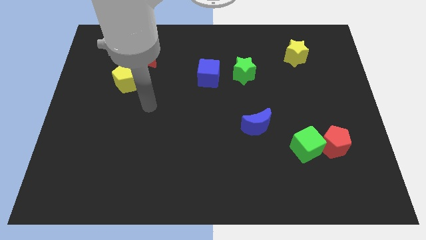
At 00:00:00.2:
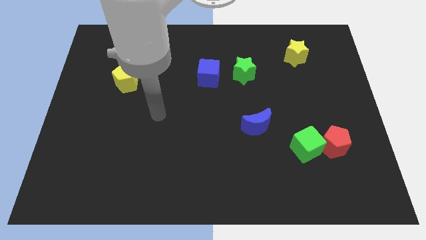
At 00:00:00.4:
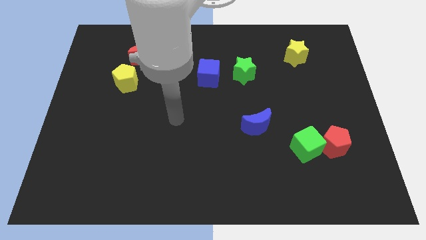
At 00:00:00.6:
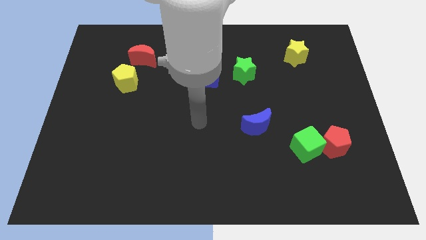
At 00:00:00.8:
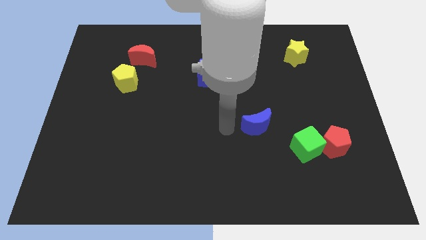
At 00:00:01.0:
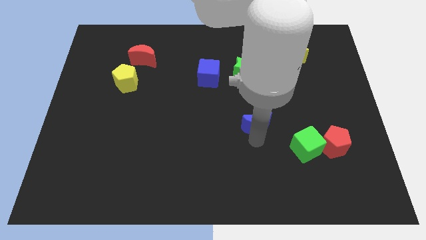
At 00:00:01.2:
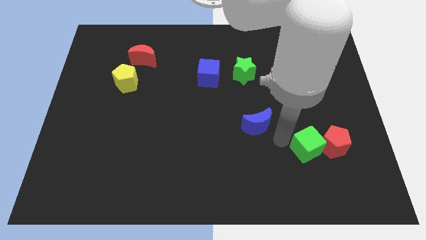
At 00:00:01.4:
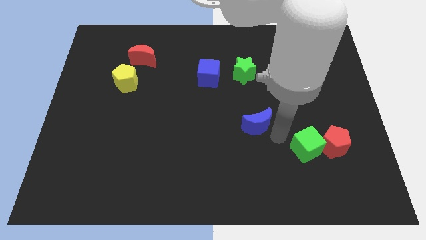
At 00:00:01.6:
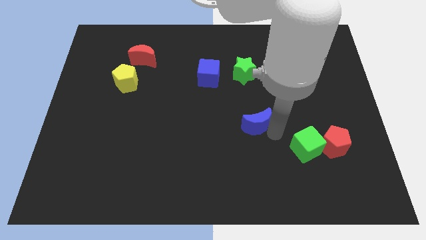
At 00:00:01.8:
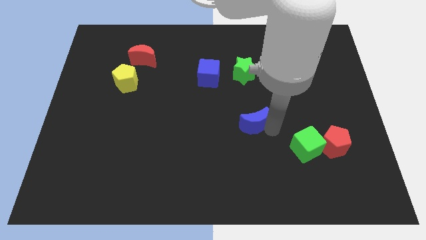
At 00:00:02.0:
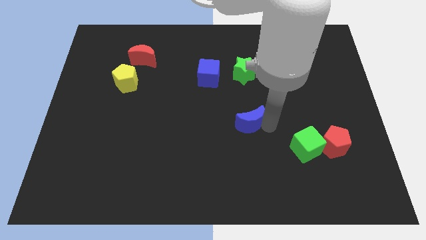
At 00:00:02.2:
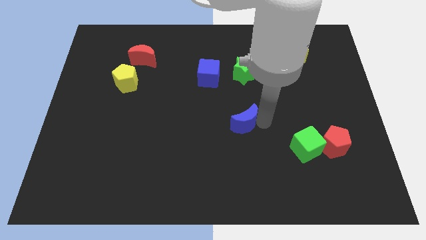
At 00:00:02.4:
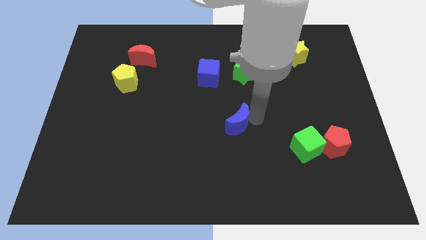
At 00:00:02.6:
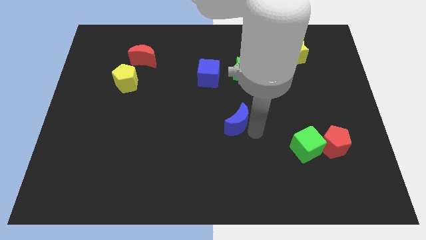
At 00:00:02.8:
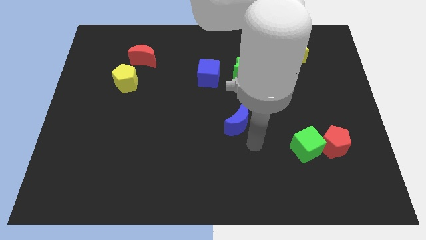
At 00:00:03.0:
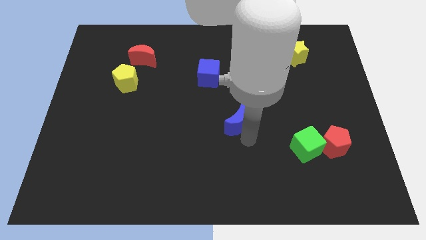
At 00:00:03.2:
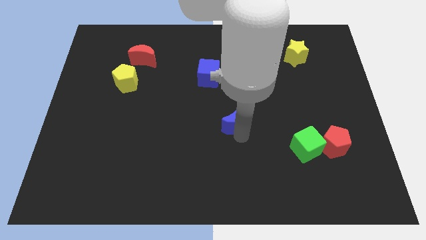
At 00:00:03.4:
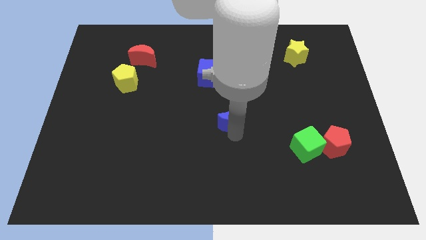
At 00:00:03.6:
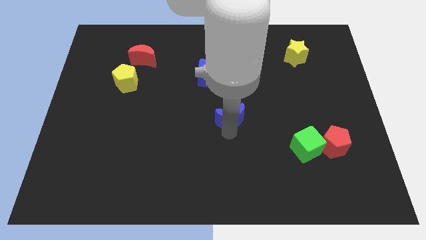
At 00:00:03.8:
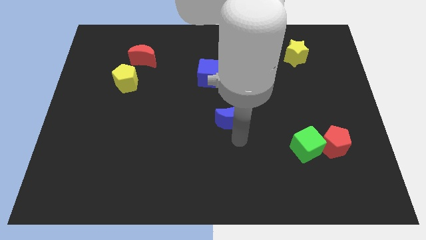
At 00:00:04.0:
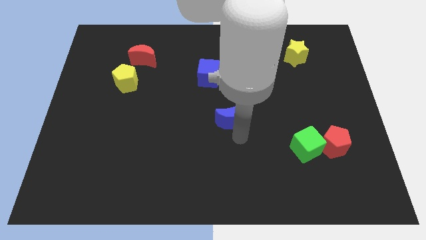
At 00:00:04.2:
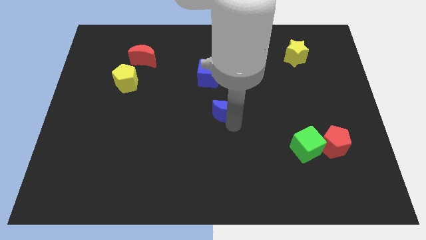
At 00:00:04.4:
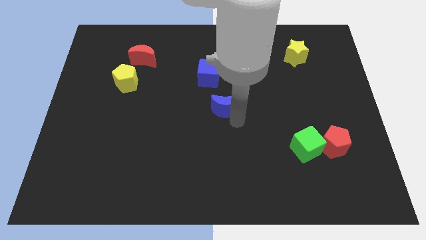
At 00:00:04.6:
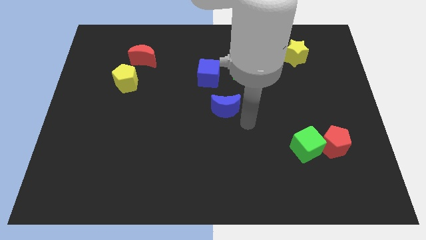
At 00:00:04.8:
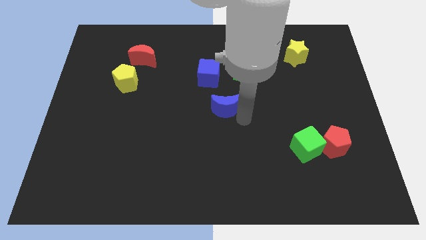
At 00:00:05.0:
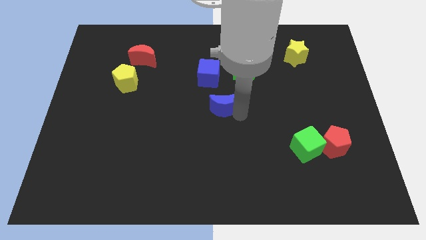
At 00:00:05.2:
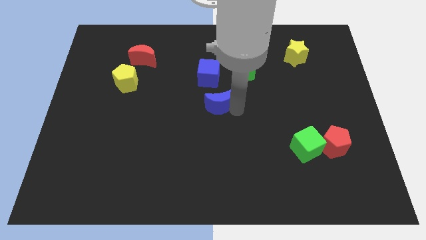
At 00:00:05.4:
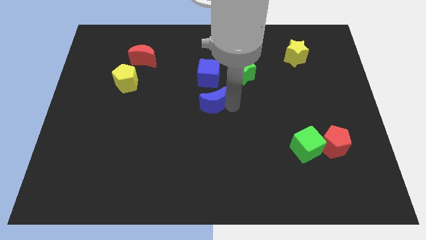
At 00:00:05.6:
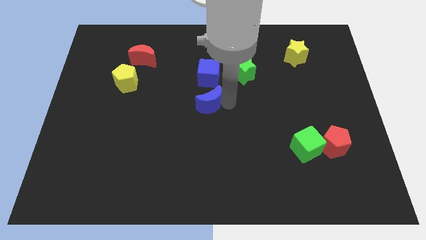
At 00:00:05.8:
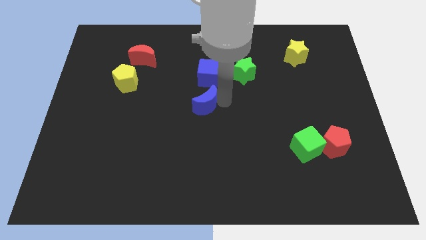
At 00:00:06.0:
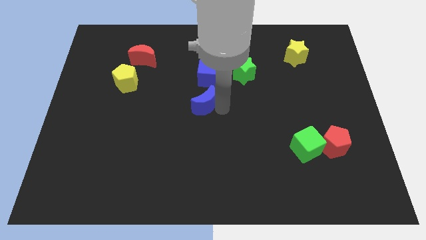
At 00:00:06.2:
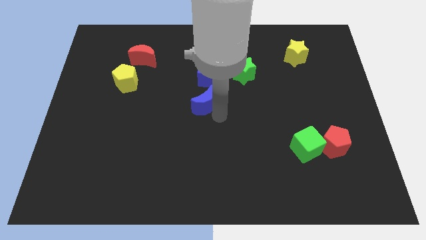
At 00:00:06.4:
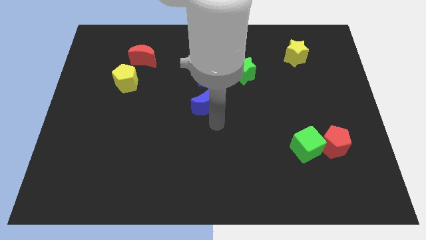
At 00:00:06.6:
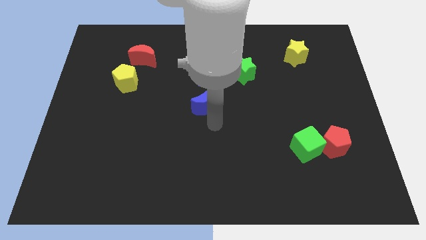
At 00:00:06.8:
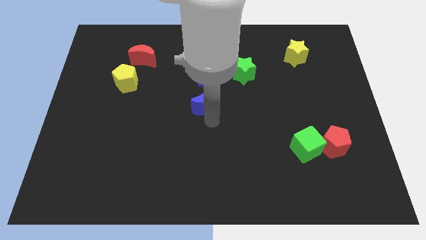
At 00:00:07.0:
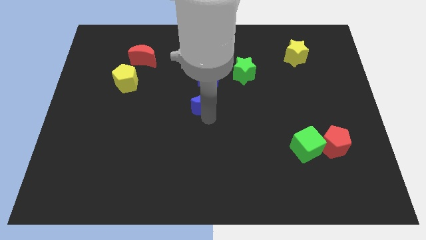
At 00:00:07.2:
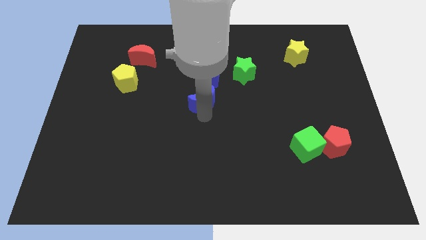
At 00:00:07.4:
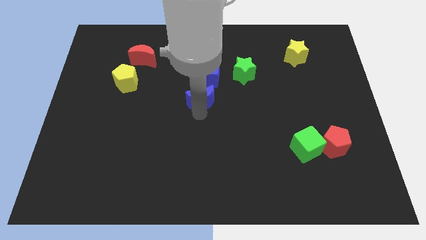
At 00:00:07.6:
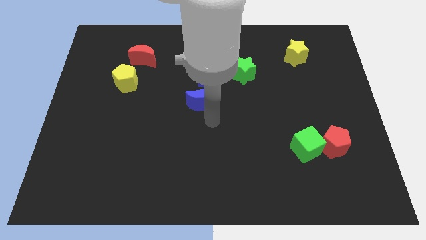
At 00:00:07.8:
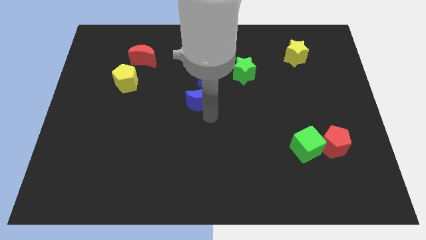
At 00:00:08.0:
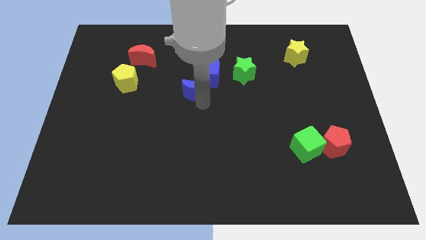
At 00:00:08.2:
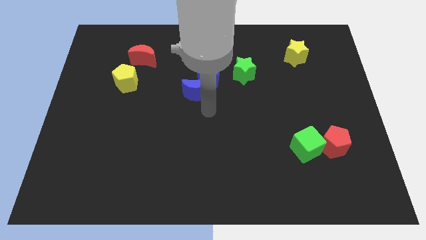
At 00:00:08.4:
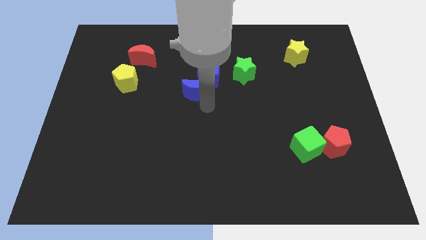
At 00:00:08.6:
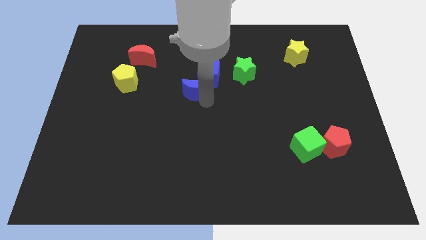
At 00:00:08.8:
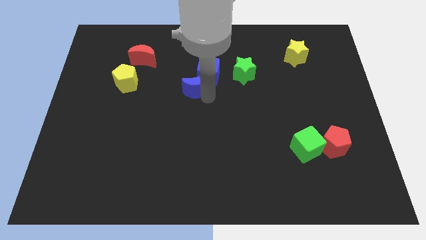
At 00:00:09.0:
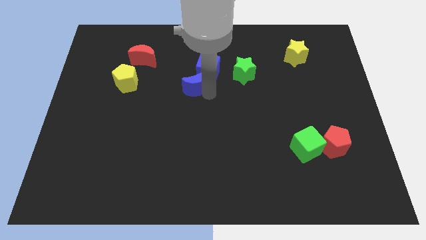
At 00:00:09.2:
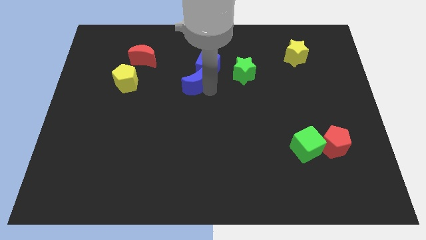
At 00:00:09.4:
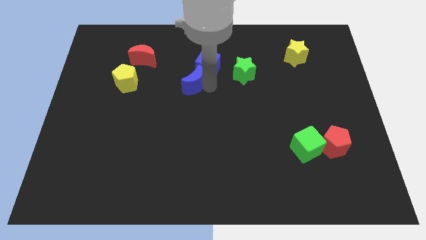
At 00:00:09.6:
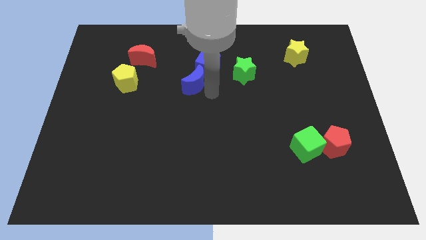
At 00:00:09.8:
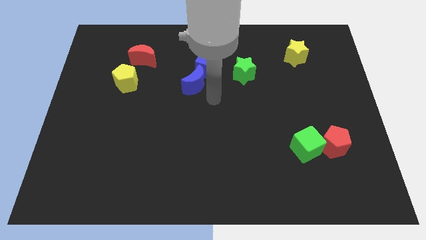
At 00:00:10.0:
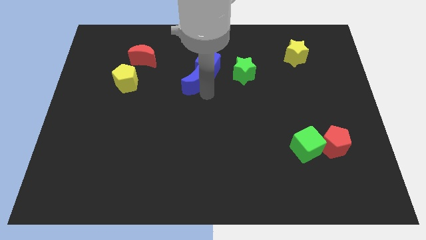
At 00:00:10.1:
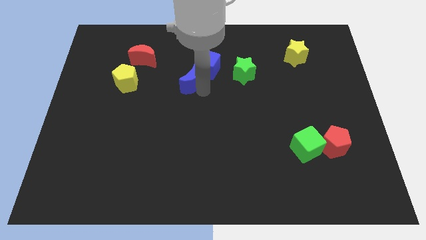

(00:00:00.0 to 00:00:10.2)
move the blue moon up and then to the left

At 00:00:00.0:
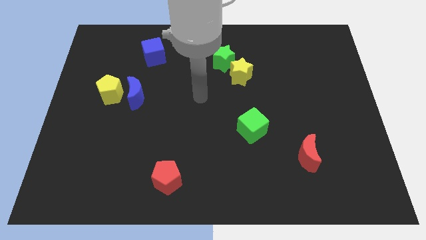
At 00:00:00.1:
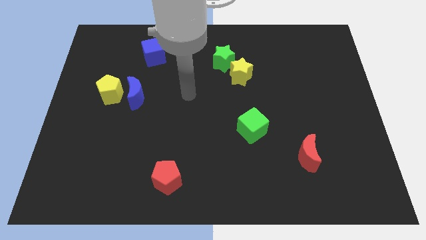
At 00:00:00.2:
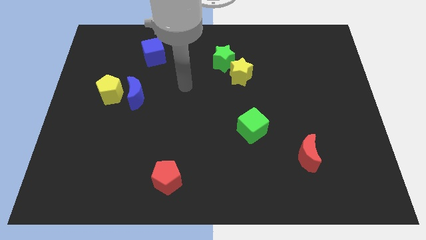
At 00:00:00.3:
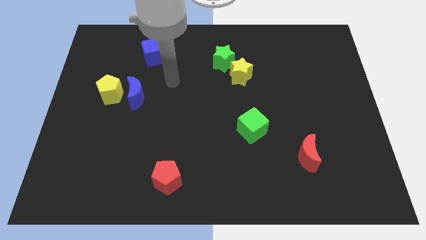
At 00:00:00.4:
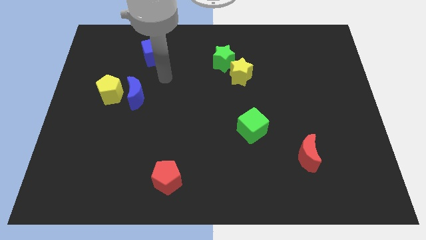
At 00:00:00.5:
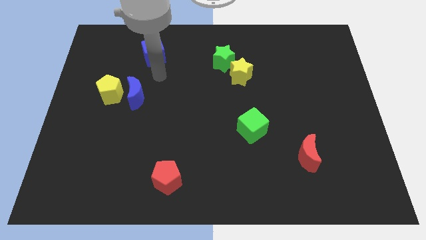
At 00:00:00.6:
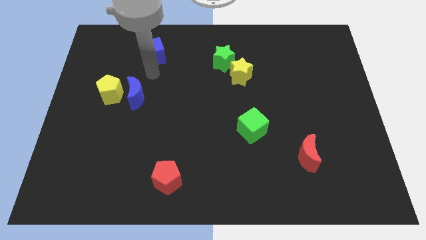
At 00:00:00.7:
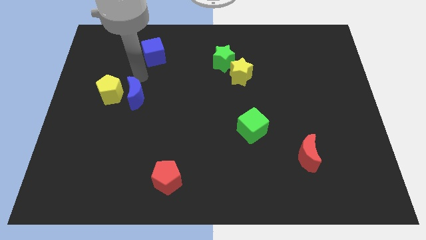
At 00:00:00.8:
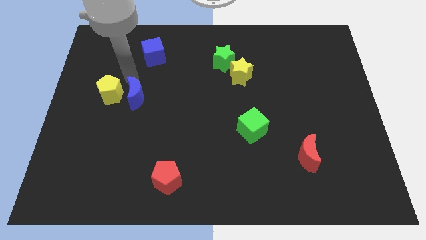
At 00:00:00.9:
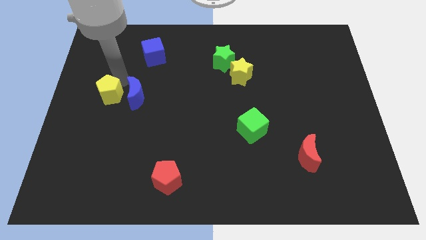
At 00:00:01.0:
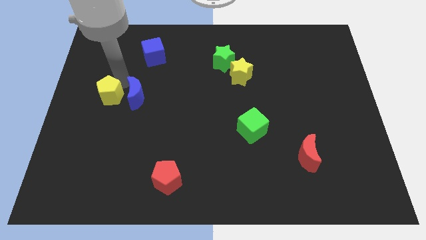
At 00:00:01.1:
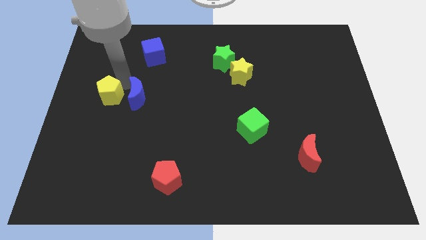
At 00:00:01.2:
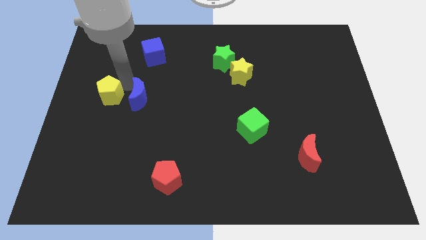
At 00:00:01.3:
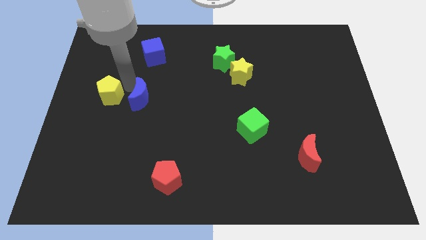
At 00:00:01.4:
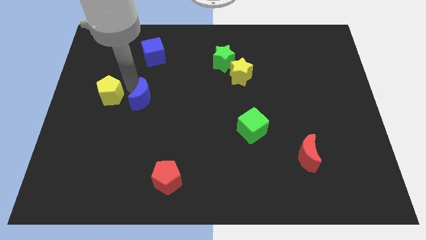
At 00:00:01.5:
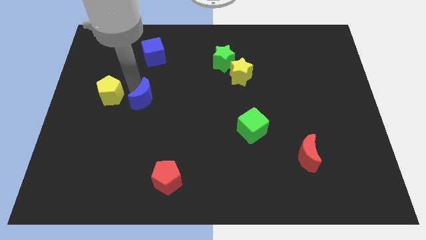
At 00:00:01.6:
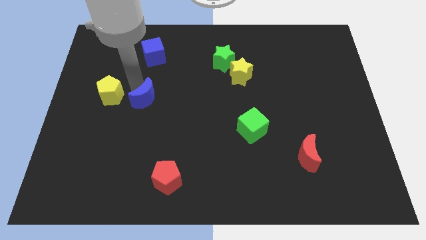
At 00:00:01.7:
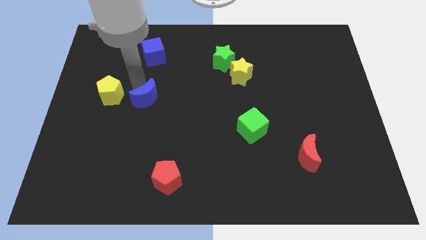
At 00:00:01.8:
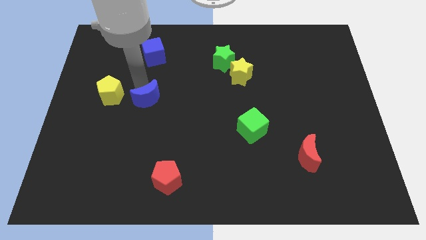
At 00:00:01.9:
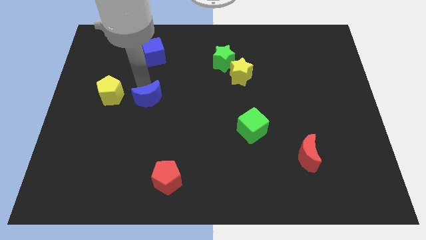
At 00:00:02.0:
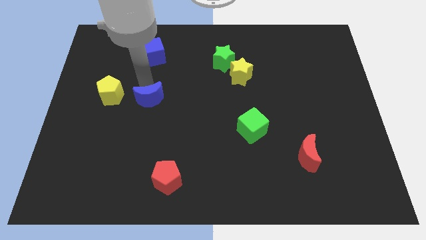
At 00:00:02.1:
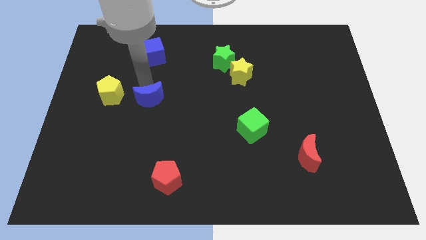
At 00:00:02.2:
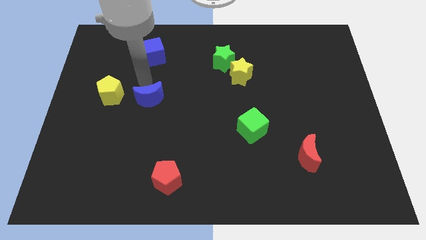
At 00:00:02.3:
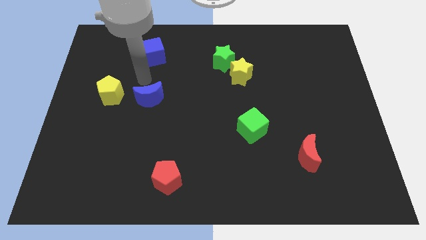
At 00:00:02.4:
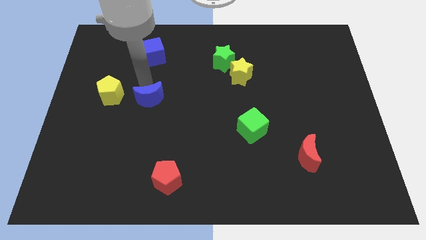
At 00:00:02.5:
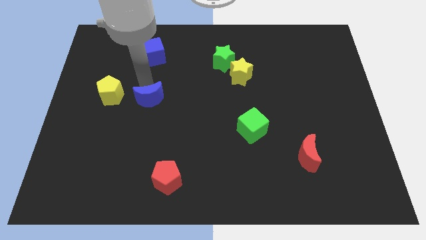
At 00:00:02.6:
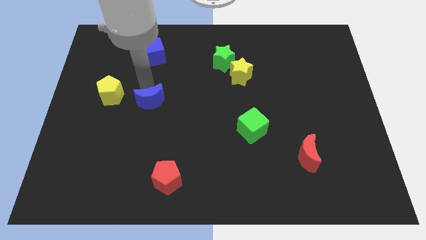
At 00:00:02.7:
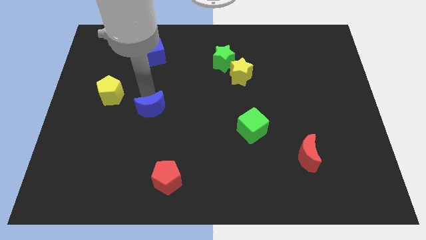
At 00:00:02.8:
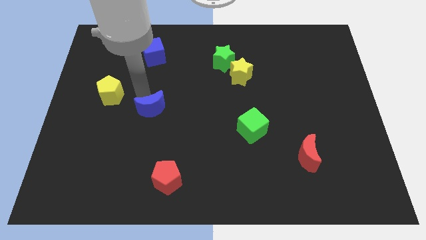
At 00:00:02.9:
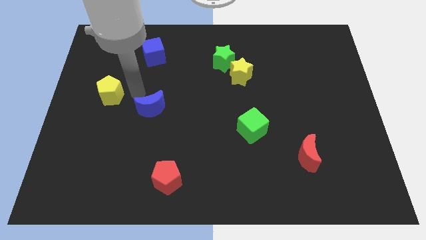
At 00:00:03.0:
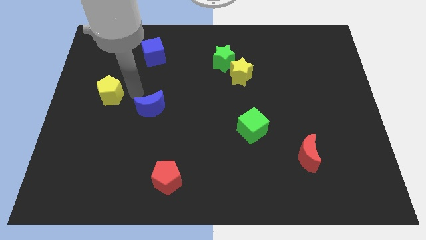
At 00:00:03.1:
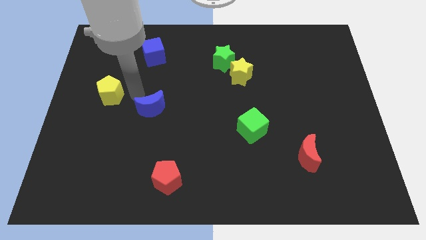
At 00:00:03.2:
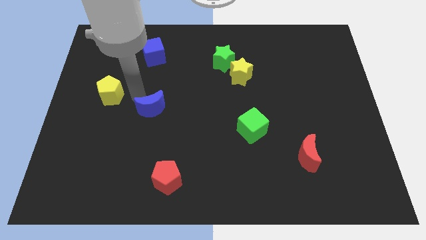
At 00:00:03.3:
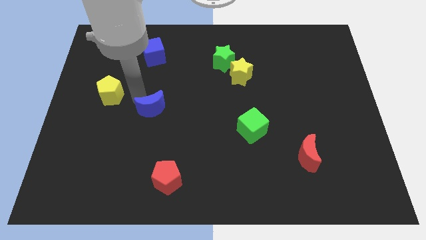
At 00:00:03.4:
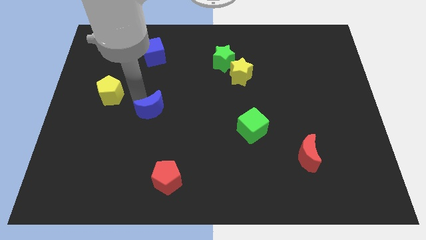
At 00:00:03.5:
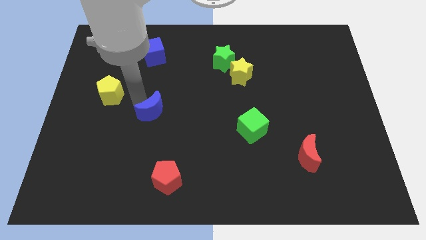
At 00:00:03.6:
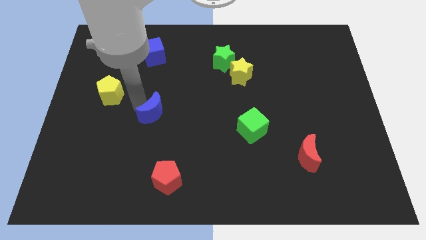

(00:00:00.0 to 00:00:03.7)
slightly slide the blue moon downwards and then to the right
